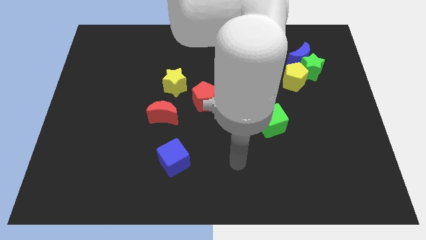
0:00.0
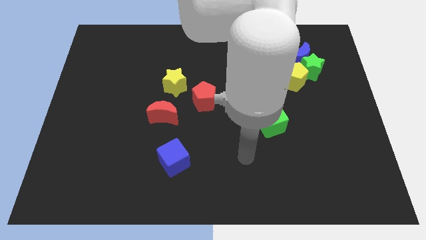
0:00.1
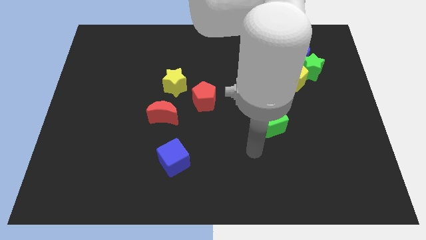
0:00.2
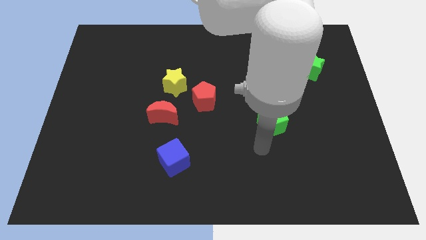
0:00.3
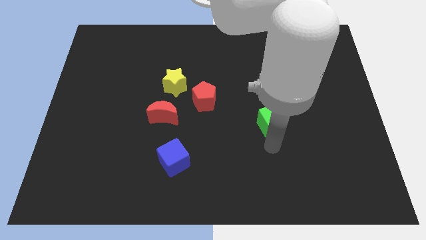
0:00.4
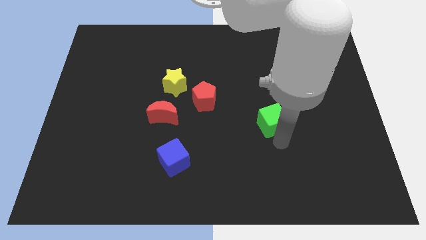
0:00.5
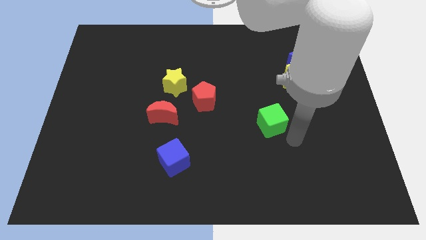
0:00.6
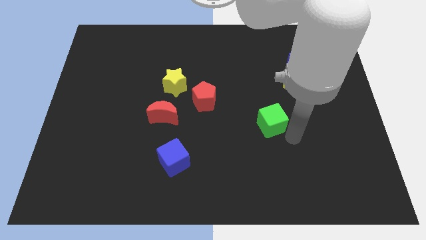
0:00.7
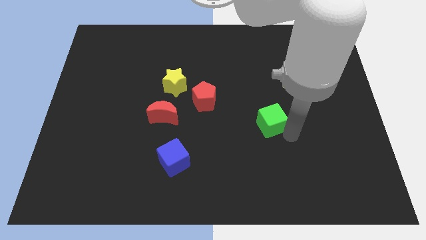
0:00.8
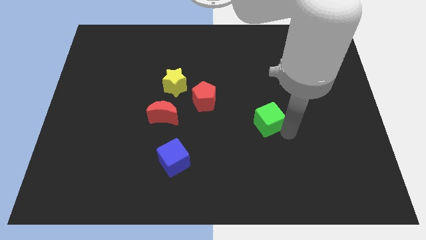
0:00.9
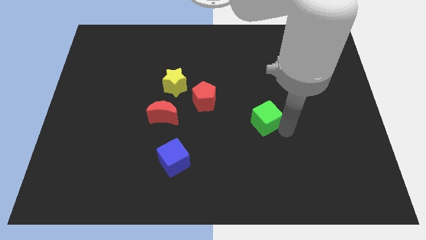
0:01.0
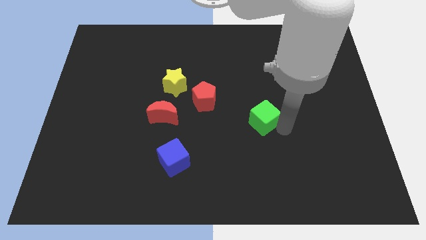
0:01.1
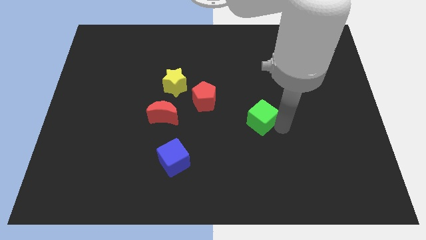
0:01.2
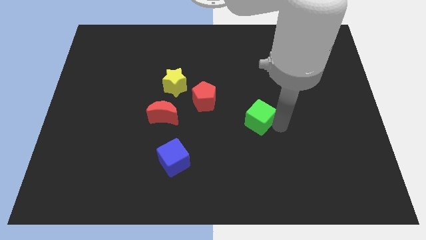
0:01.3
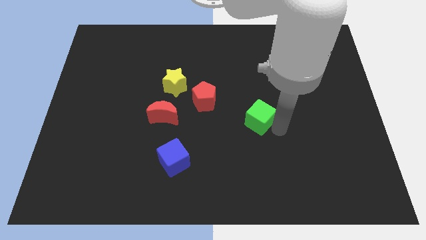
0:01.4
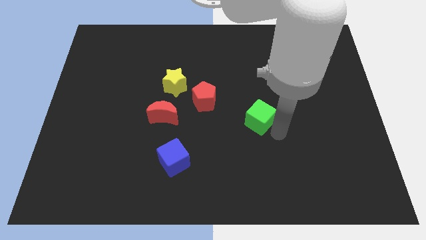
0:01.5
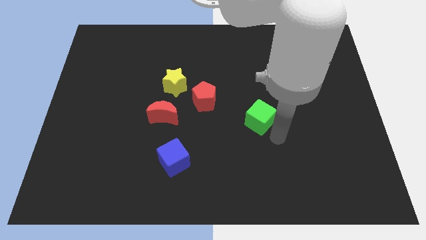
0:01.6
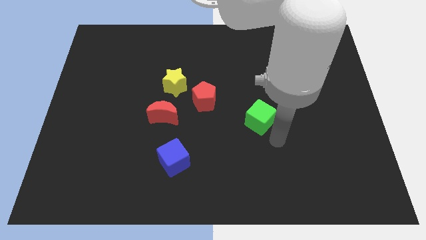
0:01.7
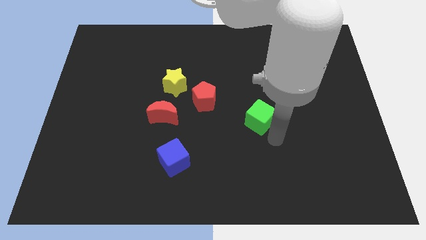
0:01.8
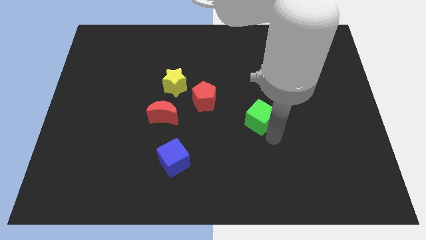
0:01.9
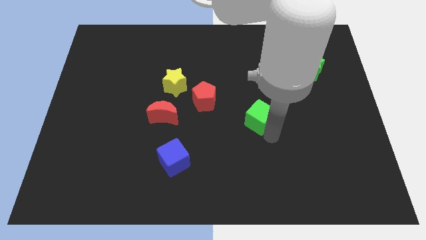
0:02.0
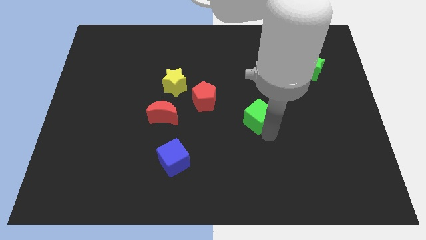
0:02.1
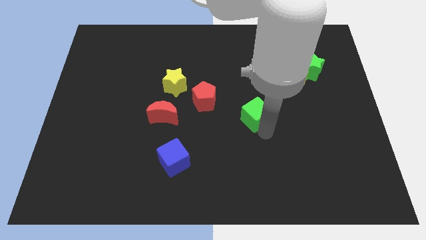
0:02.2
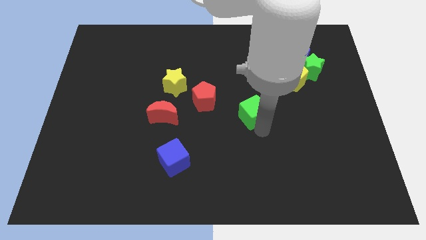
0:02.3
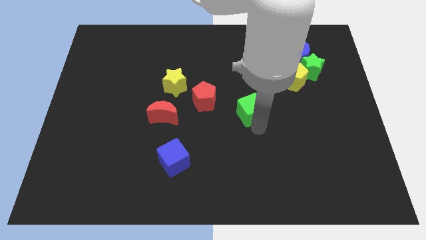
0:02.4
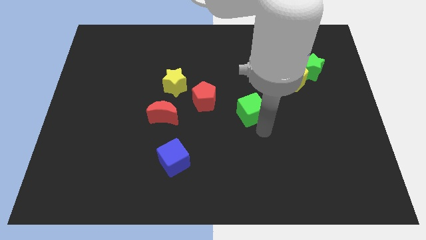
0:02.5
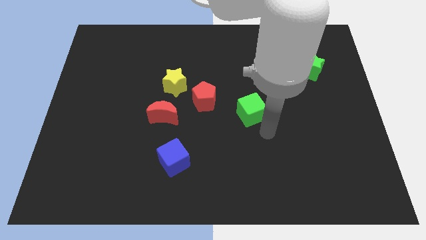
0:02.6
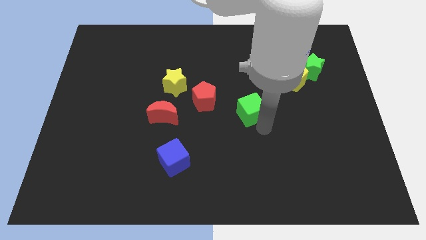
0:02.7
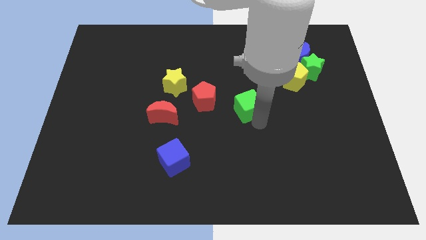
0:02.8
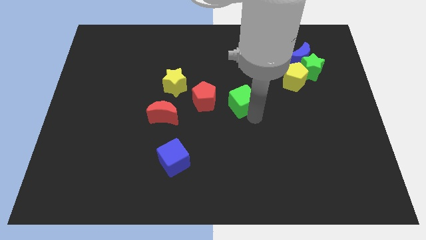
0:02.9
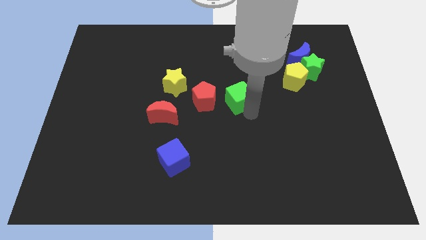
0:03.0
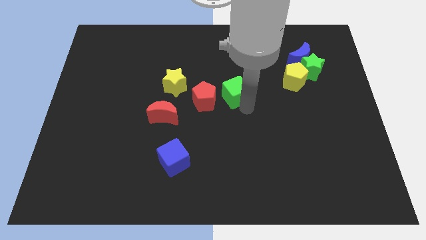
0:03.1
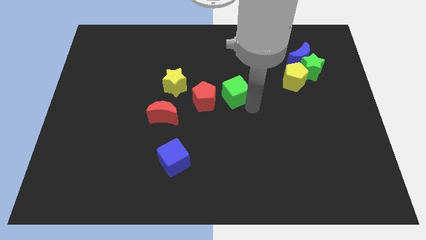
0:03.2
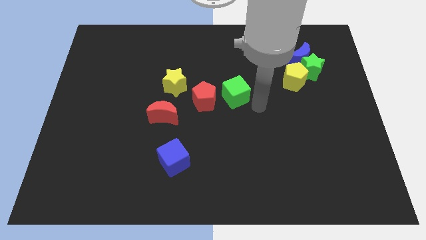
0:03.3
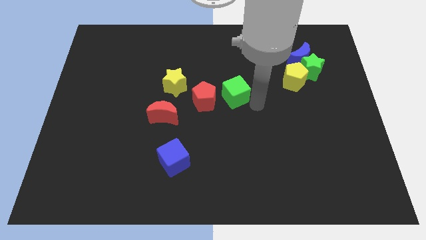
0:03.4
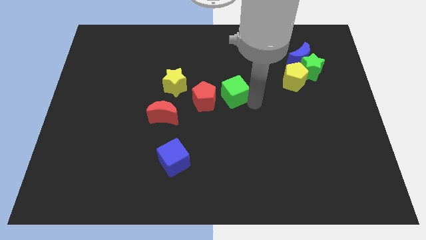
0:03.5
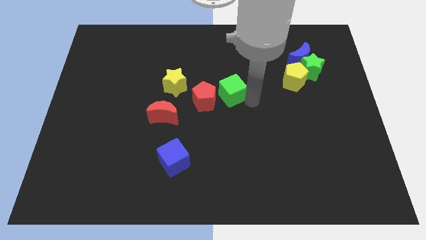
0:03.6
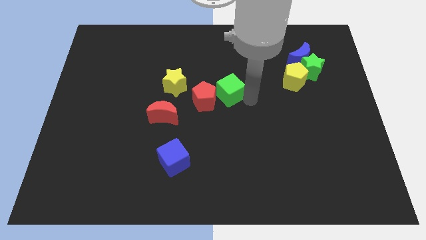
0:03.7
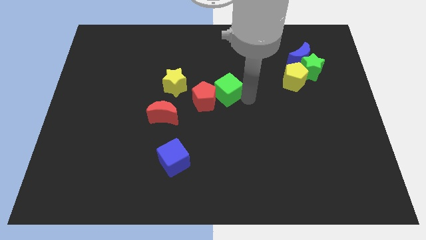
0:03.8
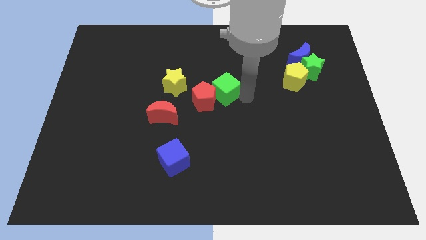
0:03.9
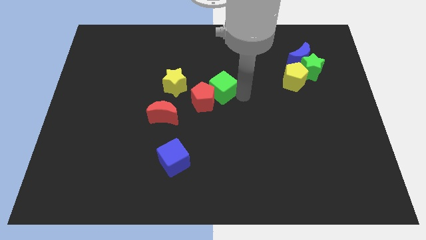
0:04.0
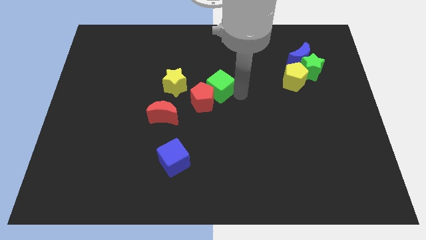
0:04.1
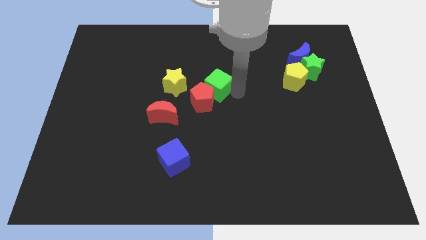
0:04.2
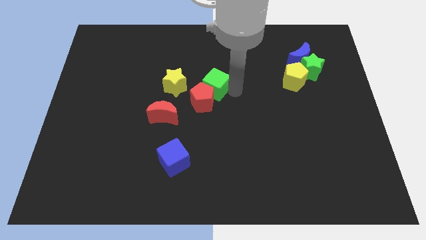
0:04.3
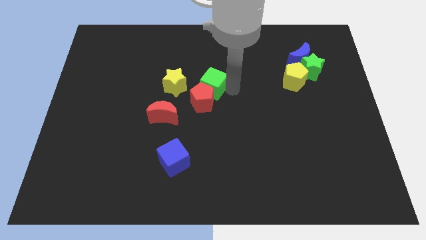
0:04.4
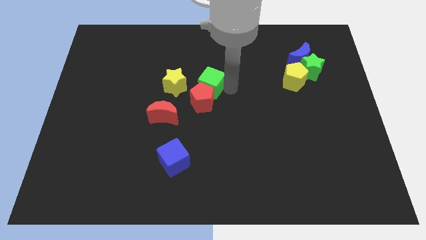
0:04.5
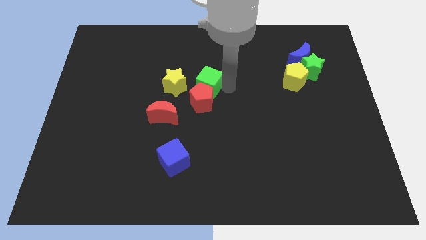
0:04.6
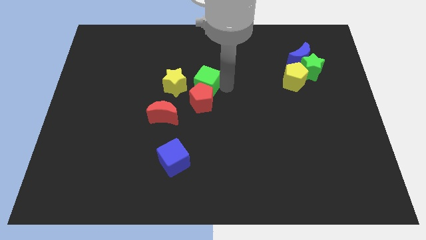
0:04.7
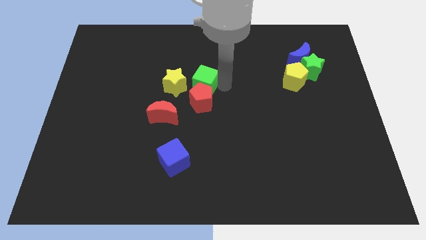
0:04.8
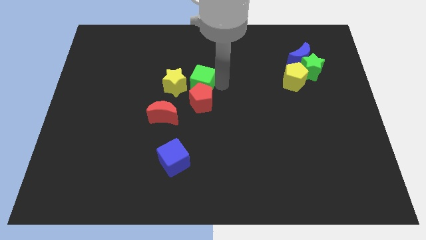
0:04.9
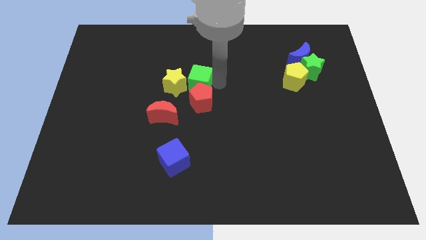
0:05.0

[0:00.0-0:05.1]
slide the green cube to the yellow star

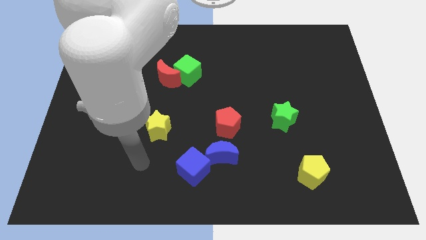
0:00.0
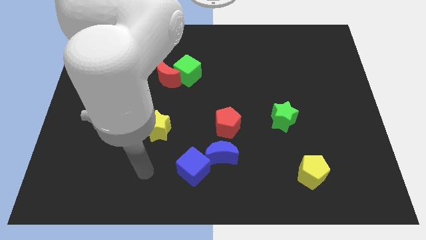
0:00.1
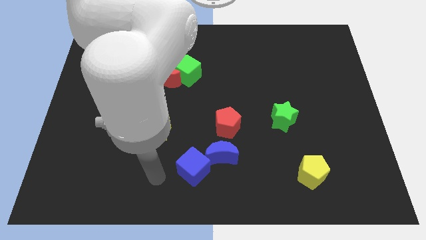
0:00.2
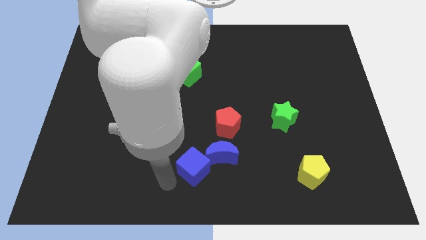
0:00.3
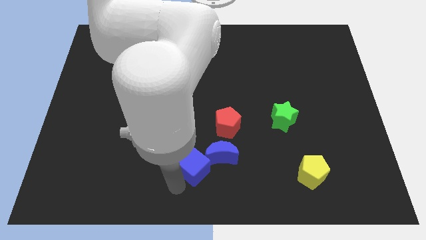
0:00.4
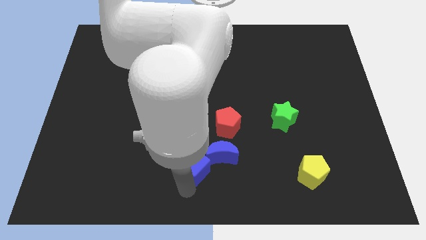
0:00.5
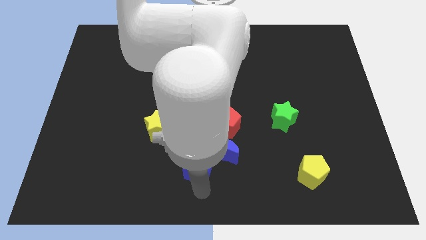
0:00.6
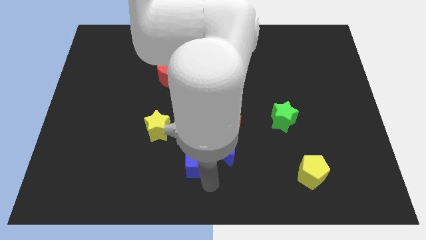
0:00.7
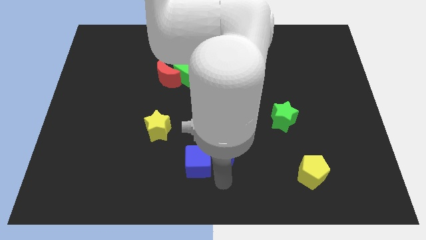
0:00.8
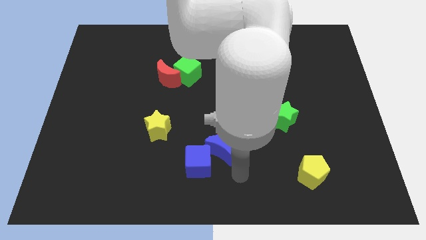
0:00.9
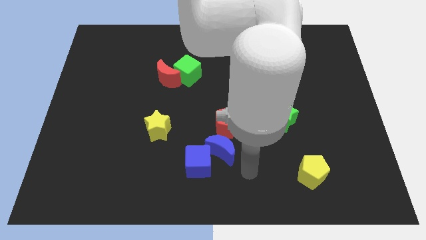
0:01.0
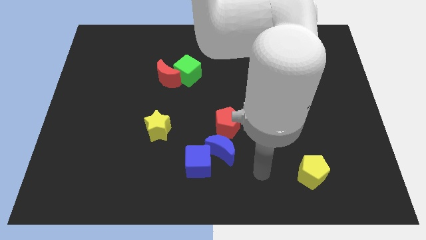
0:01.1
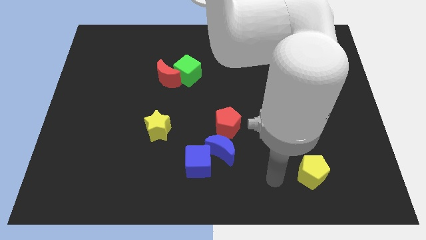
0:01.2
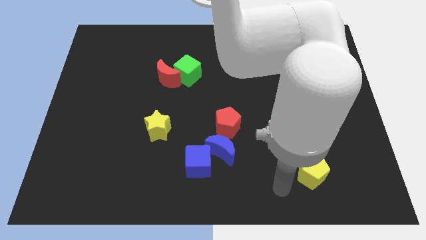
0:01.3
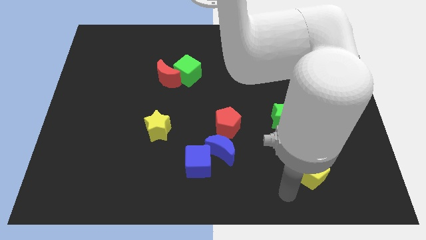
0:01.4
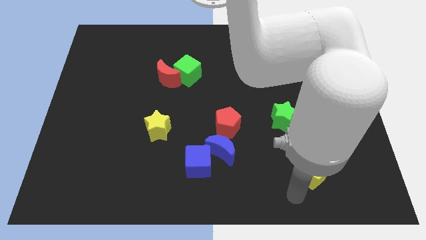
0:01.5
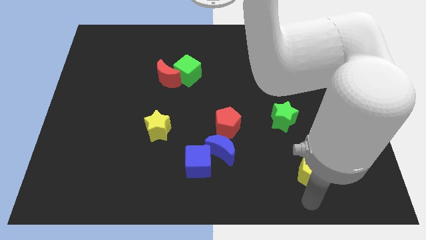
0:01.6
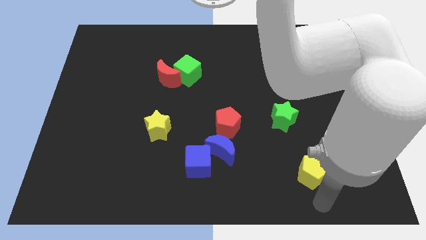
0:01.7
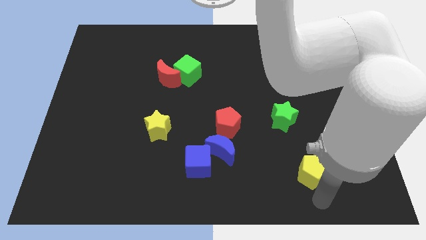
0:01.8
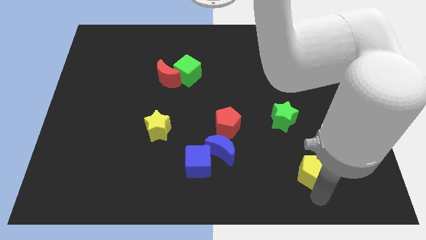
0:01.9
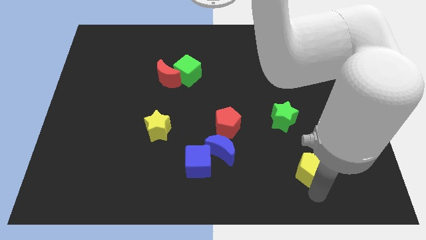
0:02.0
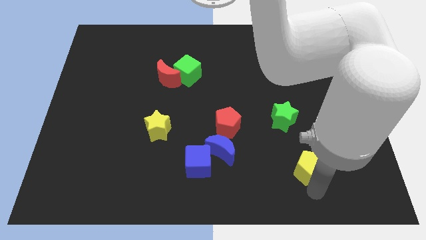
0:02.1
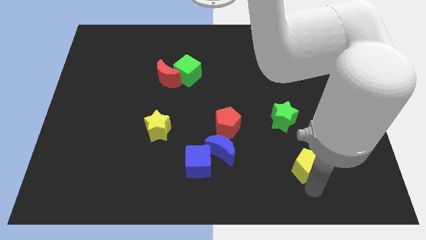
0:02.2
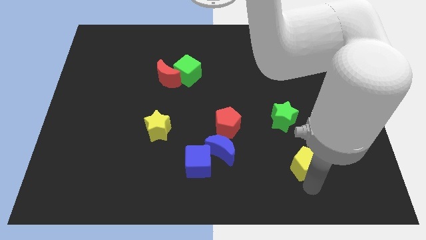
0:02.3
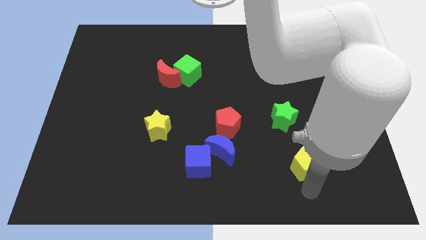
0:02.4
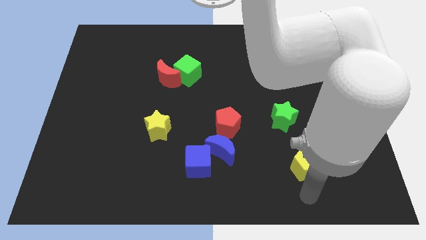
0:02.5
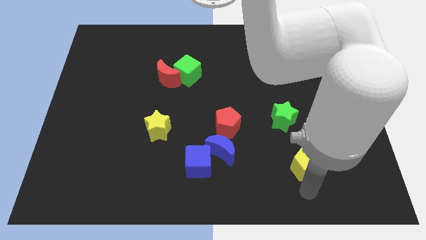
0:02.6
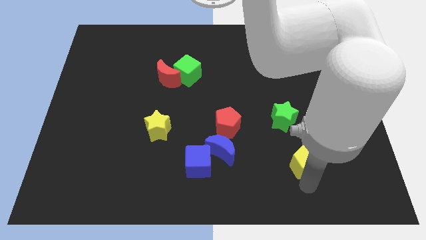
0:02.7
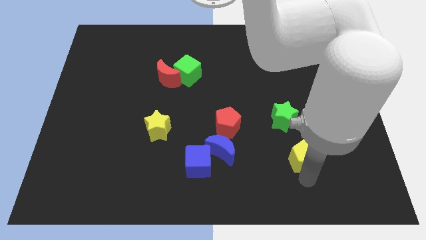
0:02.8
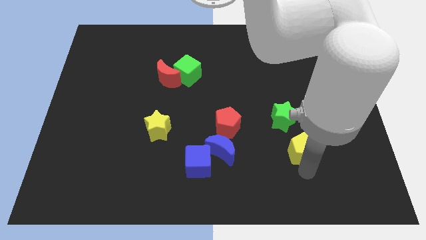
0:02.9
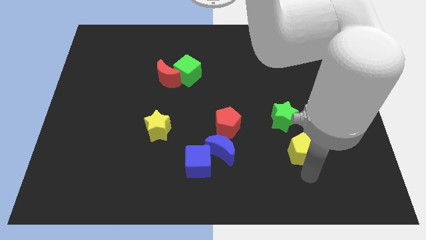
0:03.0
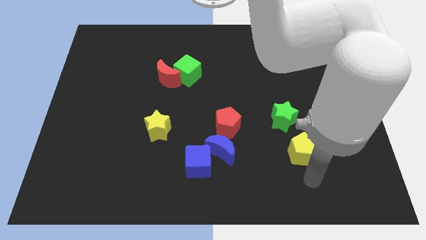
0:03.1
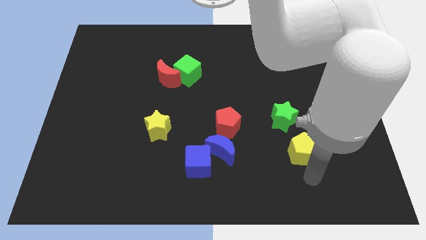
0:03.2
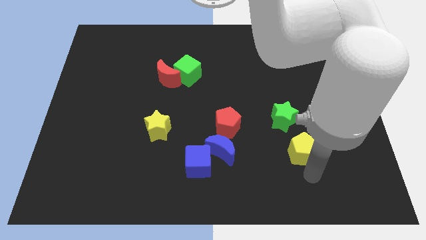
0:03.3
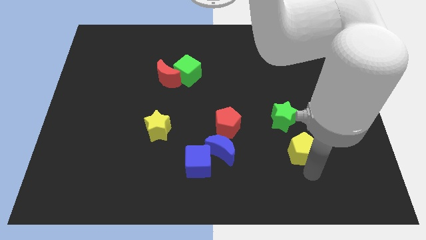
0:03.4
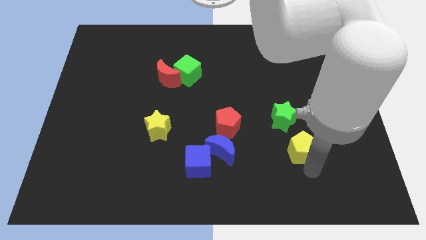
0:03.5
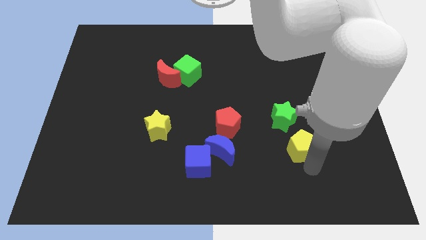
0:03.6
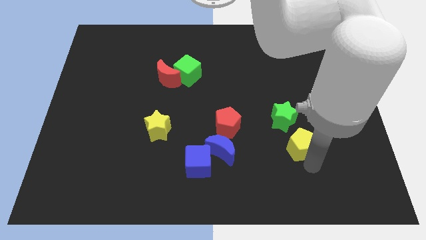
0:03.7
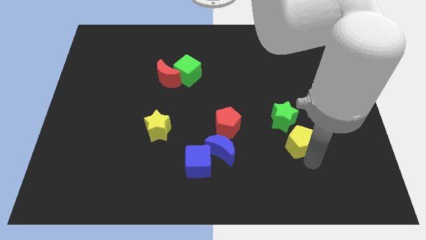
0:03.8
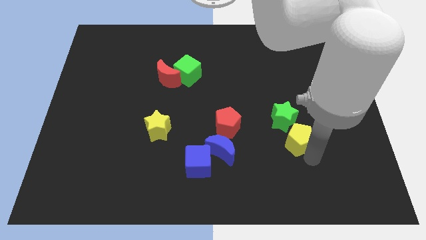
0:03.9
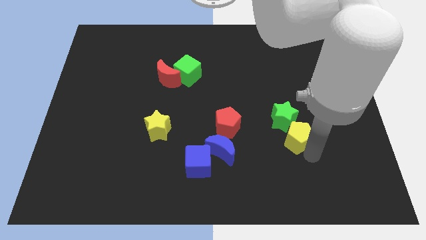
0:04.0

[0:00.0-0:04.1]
push the yellow pentagon next to the green star
